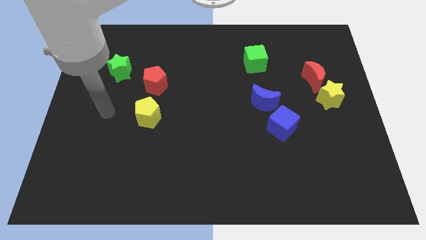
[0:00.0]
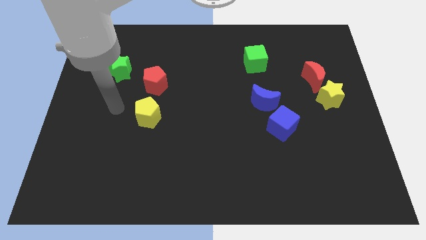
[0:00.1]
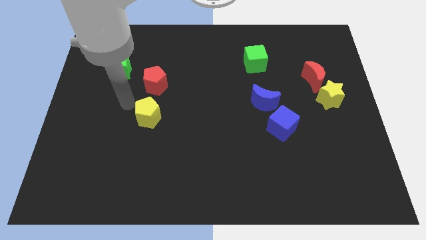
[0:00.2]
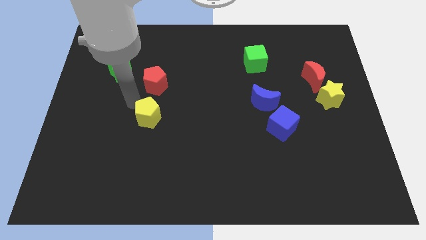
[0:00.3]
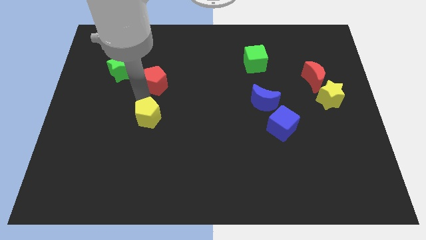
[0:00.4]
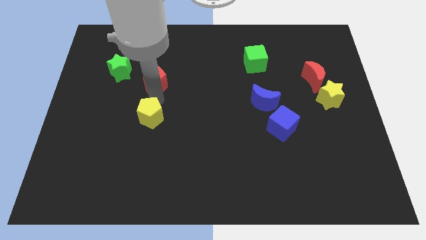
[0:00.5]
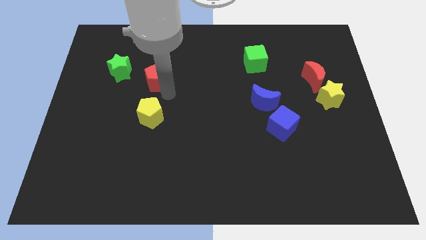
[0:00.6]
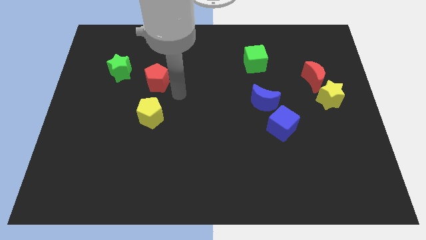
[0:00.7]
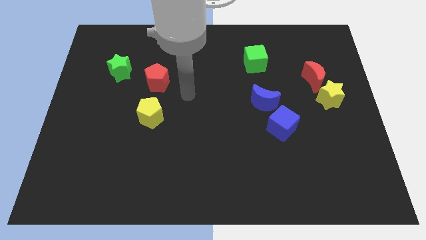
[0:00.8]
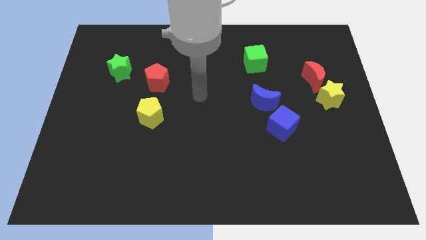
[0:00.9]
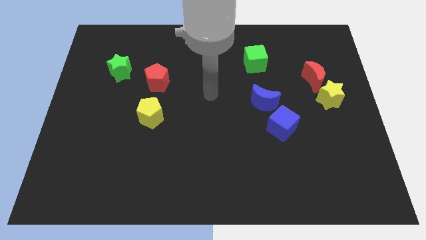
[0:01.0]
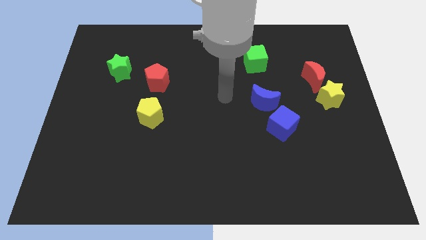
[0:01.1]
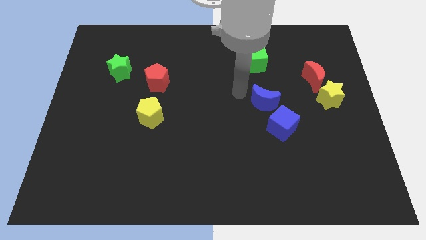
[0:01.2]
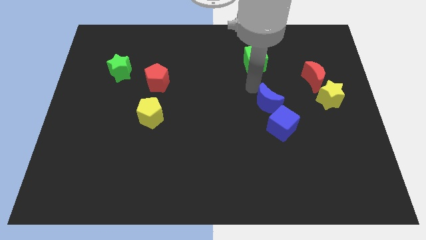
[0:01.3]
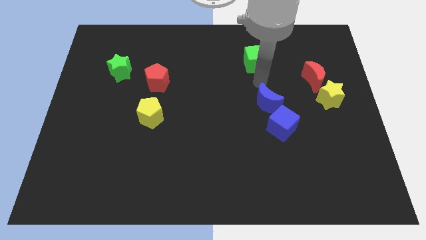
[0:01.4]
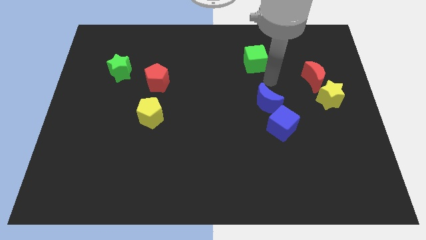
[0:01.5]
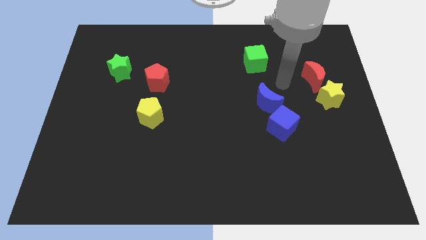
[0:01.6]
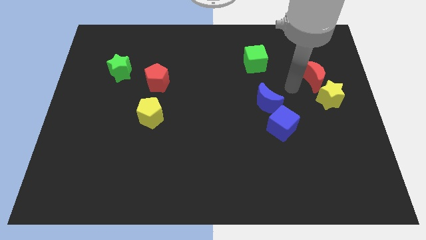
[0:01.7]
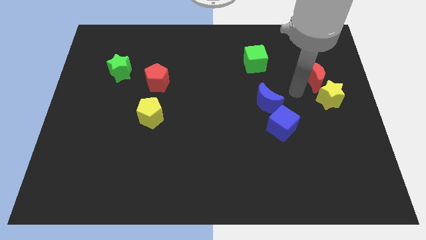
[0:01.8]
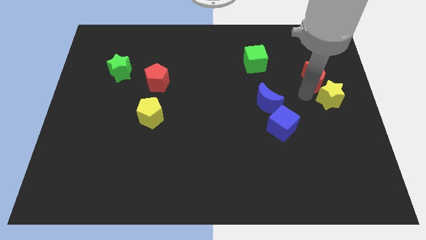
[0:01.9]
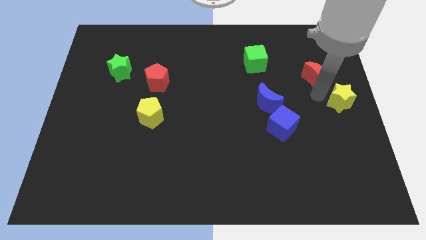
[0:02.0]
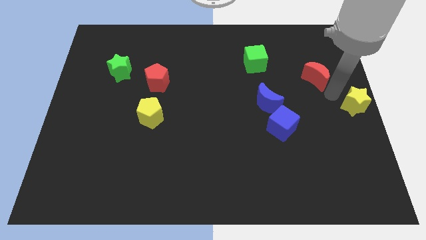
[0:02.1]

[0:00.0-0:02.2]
separate the red moon from the yellow star

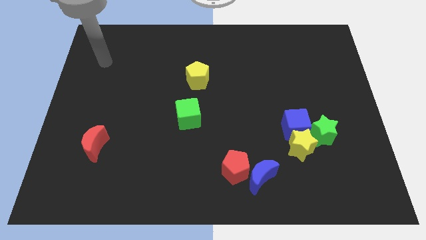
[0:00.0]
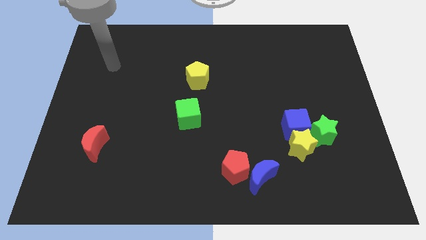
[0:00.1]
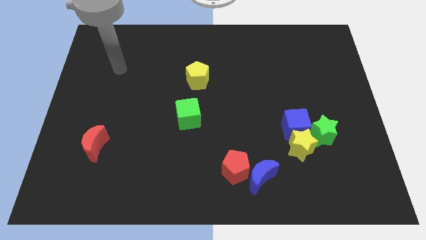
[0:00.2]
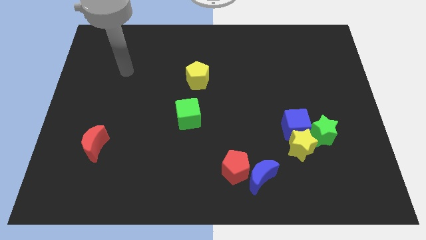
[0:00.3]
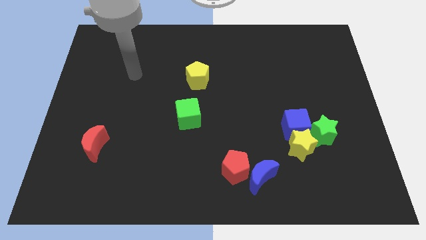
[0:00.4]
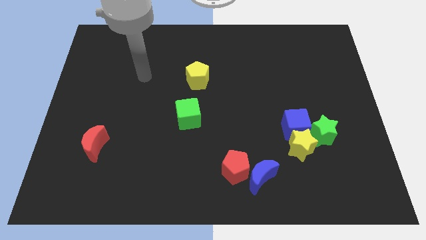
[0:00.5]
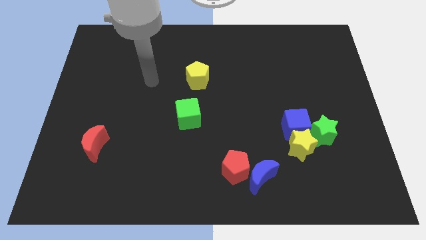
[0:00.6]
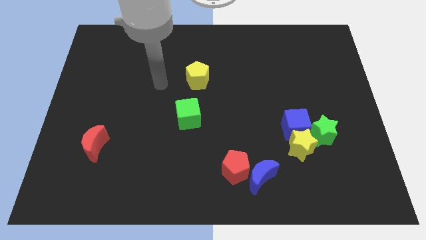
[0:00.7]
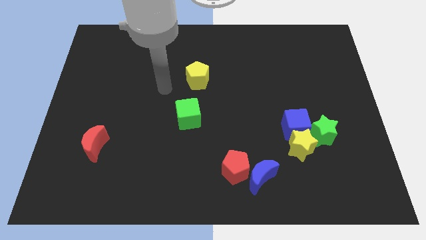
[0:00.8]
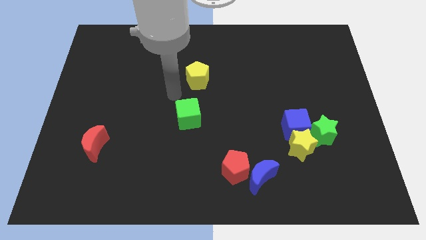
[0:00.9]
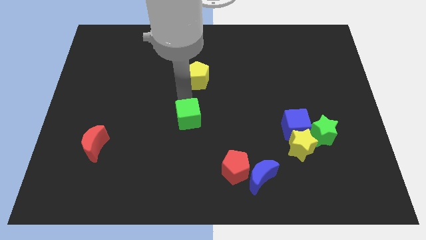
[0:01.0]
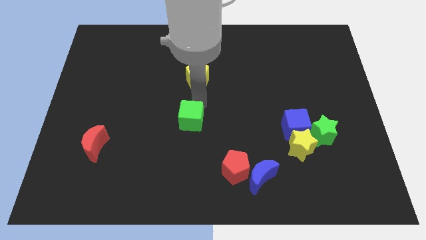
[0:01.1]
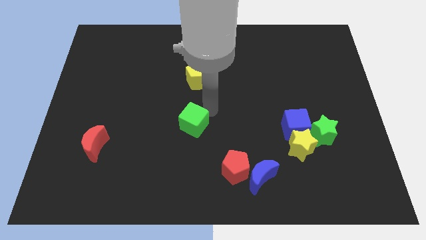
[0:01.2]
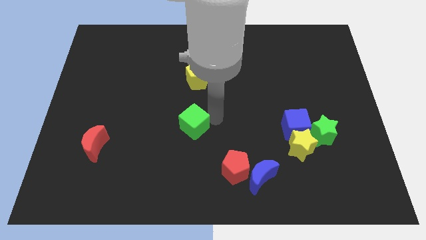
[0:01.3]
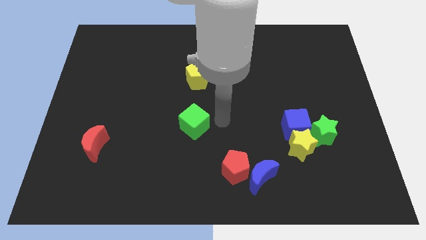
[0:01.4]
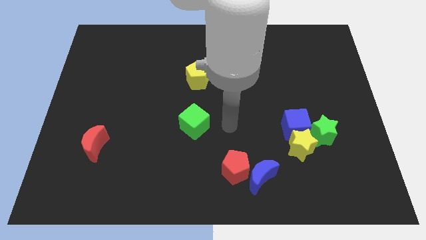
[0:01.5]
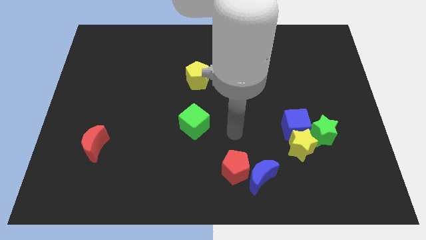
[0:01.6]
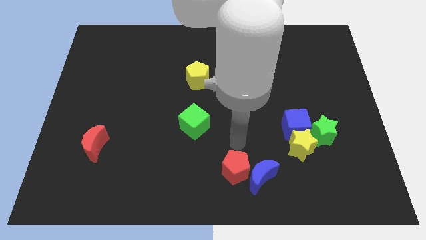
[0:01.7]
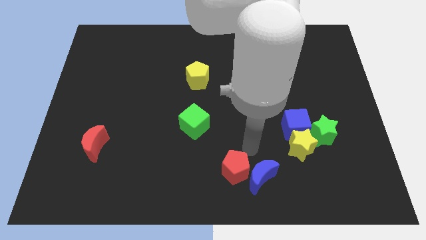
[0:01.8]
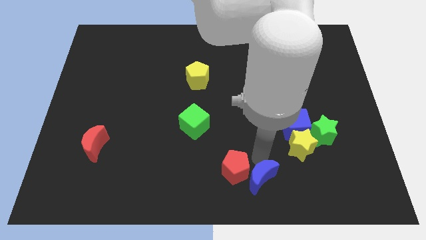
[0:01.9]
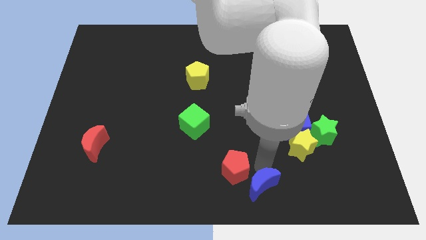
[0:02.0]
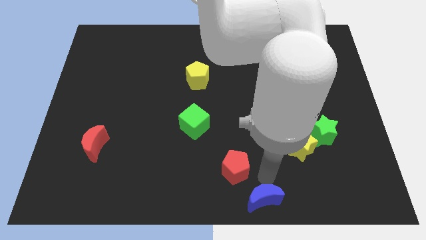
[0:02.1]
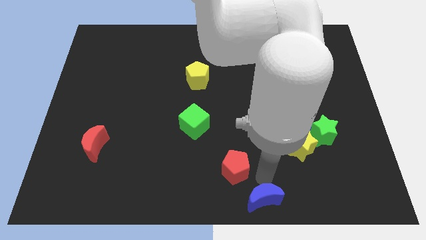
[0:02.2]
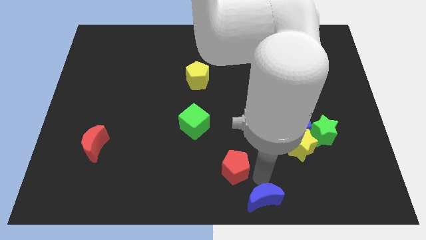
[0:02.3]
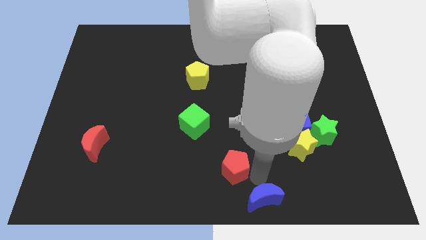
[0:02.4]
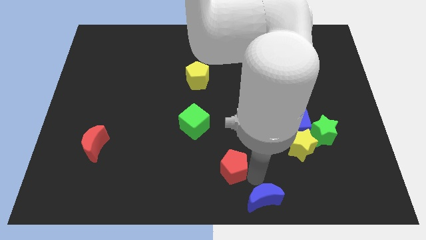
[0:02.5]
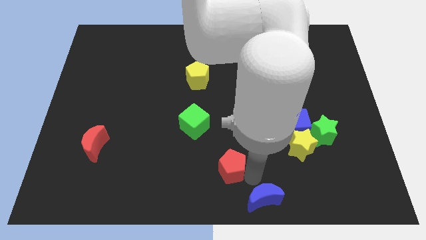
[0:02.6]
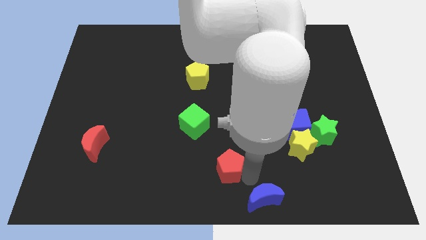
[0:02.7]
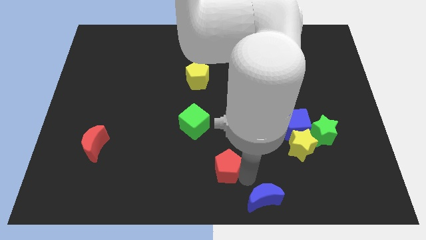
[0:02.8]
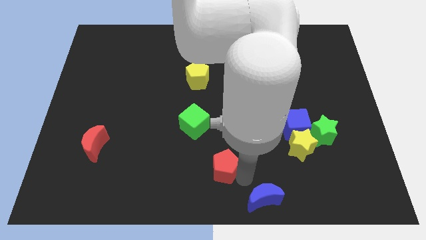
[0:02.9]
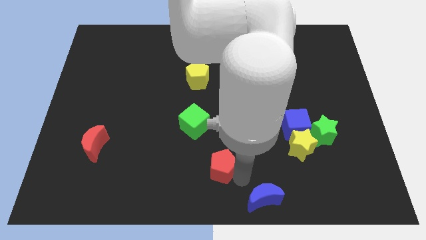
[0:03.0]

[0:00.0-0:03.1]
separate the red pentagon from the blue moon

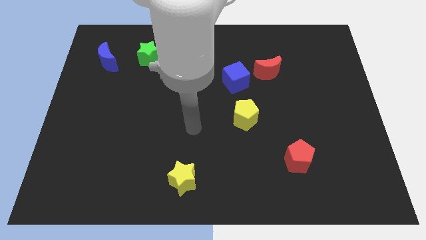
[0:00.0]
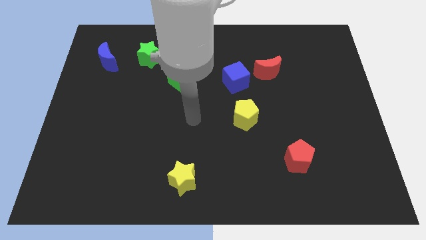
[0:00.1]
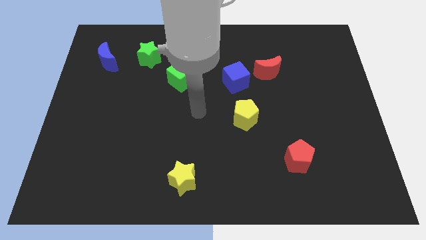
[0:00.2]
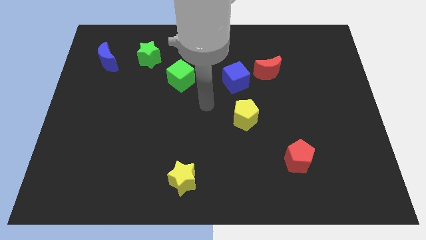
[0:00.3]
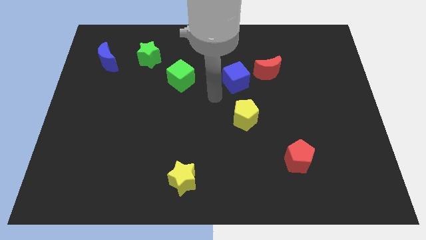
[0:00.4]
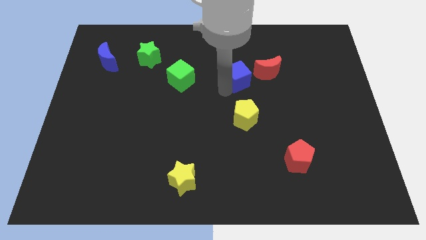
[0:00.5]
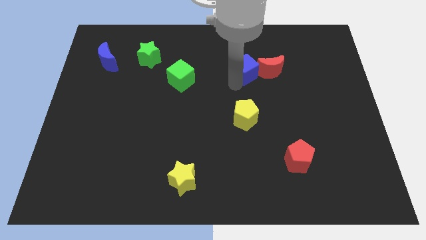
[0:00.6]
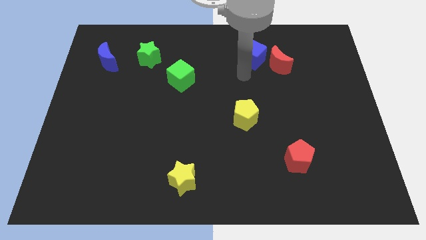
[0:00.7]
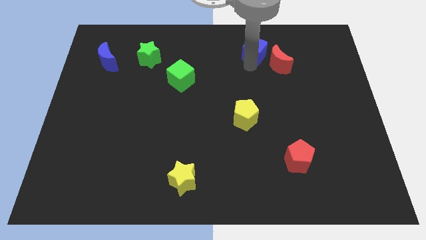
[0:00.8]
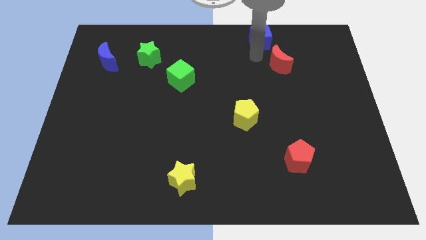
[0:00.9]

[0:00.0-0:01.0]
pull the red moon apart from the blue cube

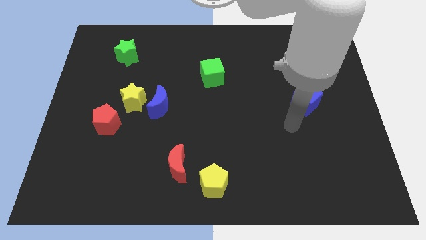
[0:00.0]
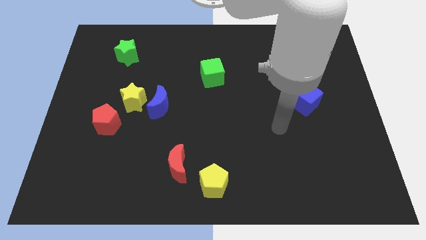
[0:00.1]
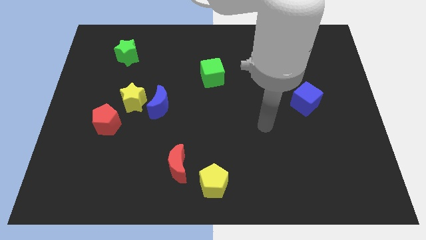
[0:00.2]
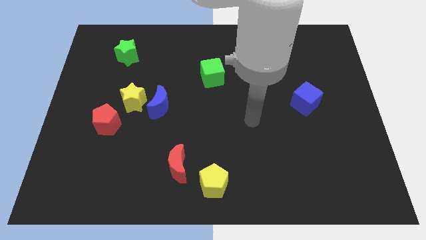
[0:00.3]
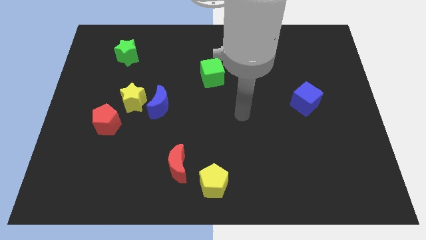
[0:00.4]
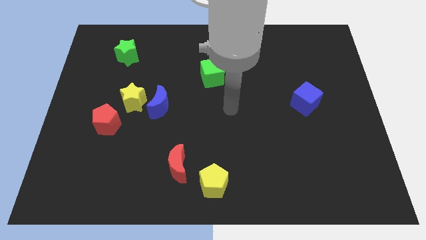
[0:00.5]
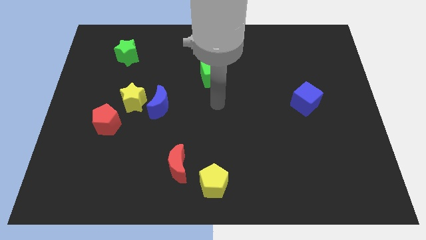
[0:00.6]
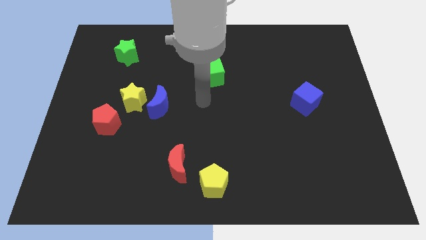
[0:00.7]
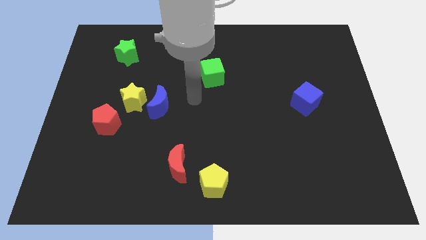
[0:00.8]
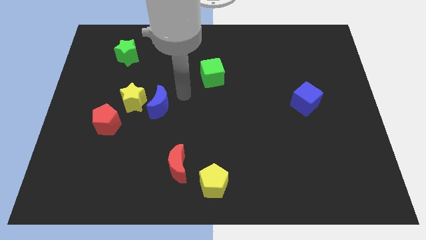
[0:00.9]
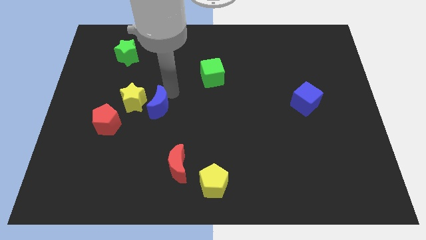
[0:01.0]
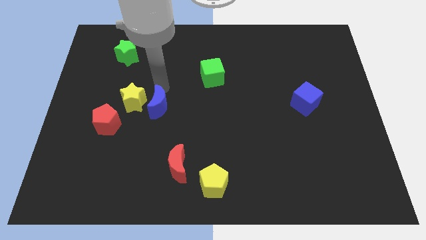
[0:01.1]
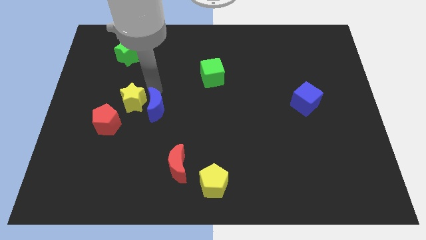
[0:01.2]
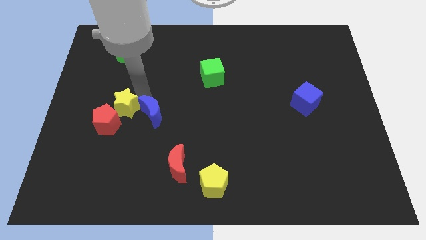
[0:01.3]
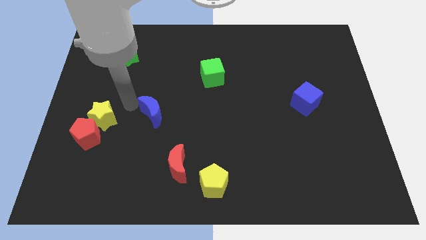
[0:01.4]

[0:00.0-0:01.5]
pull the blue moon apart from the yellow star

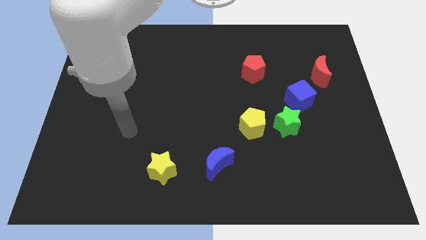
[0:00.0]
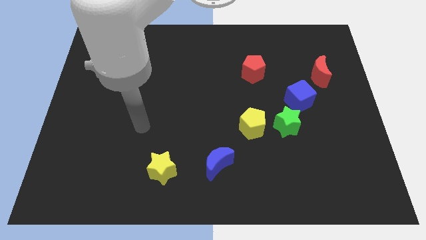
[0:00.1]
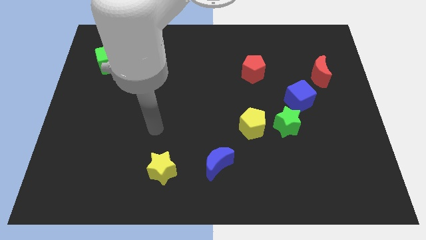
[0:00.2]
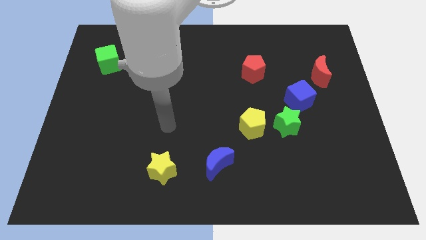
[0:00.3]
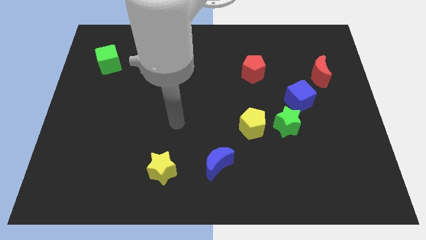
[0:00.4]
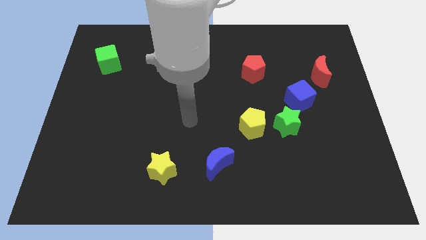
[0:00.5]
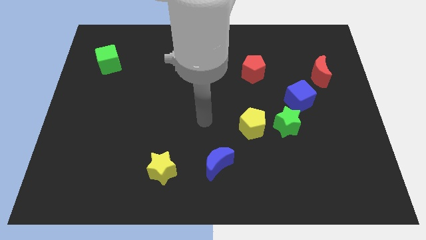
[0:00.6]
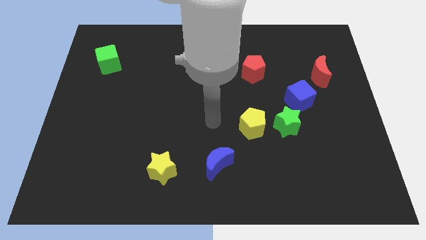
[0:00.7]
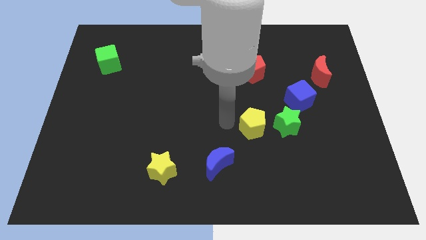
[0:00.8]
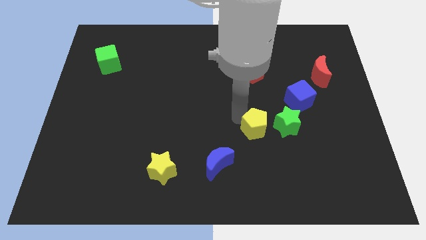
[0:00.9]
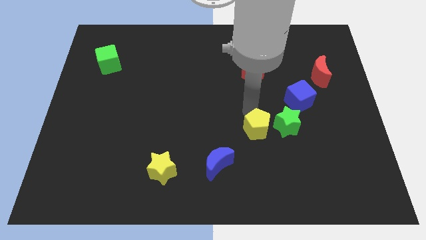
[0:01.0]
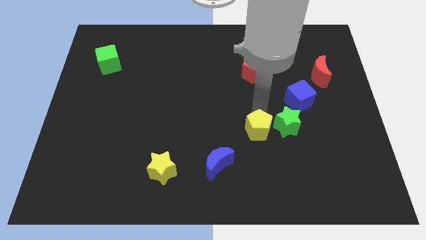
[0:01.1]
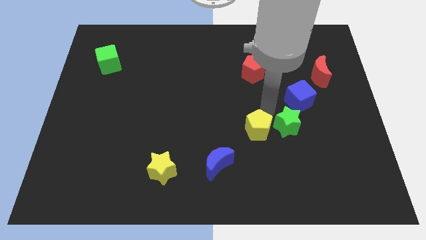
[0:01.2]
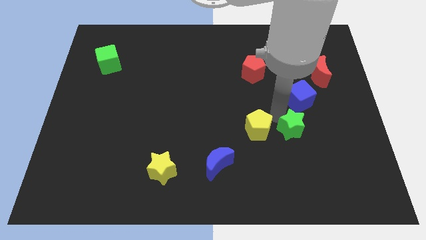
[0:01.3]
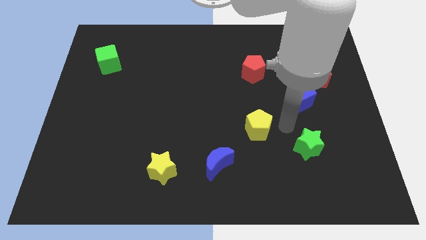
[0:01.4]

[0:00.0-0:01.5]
separate the yellow pentagon from the green star
